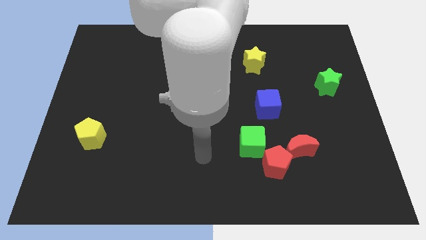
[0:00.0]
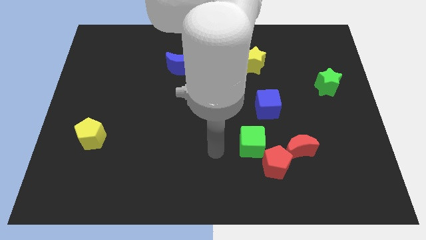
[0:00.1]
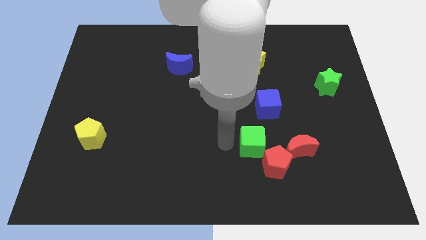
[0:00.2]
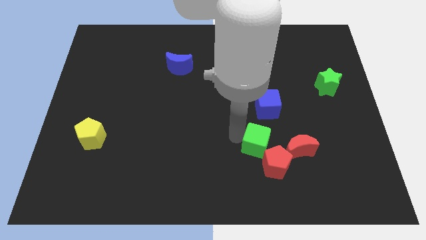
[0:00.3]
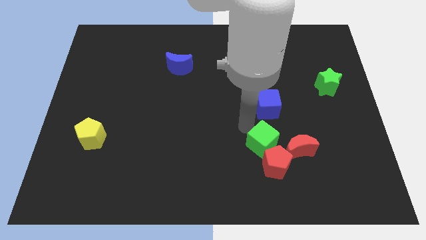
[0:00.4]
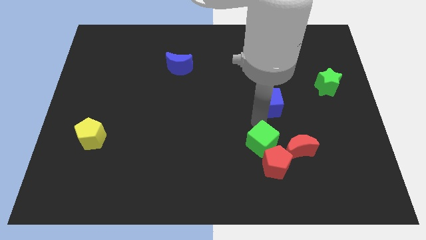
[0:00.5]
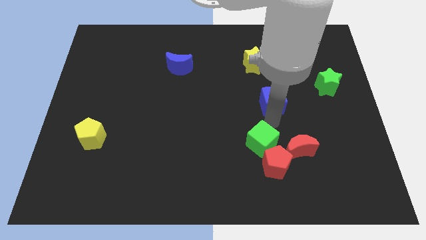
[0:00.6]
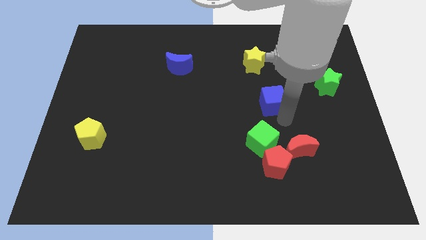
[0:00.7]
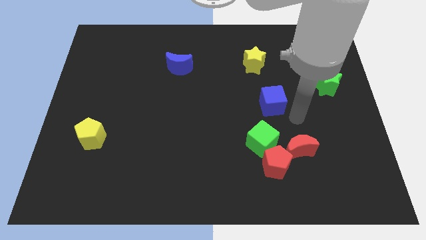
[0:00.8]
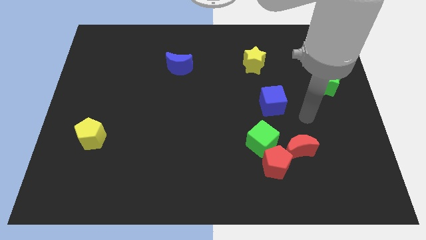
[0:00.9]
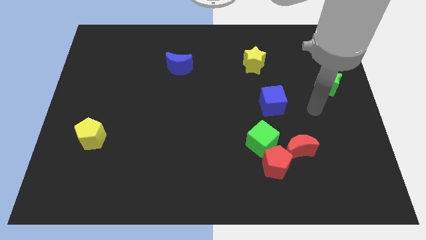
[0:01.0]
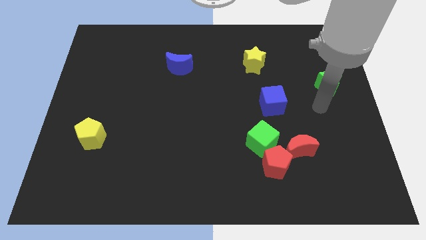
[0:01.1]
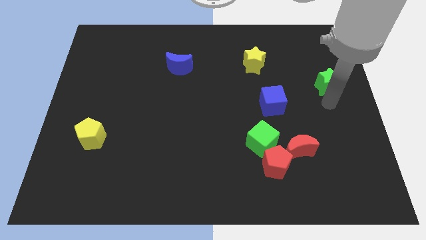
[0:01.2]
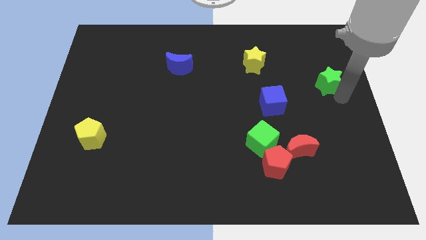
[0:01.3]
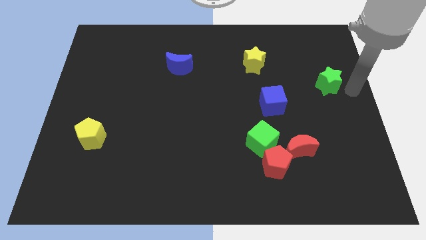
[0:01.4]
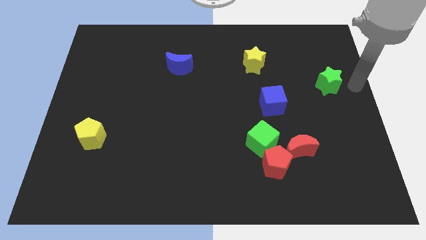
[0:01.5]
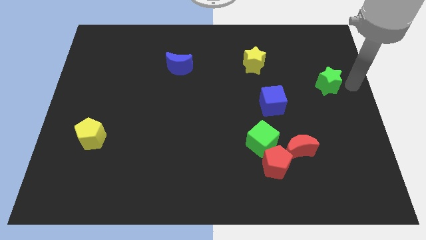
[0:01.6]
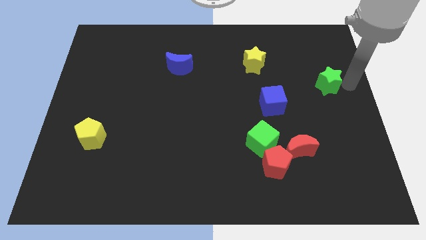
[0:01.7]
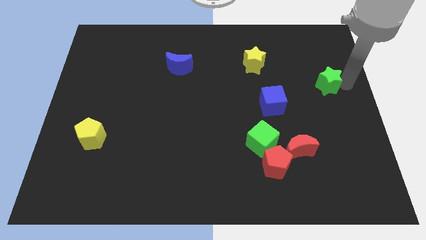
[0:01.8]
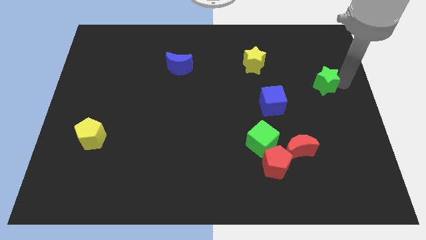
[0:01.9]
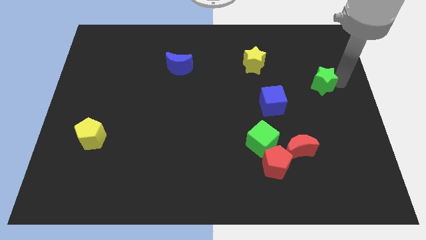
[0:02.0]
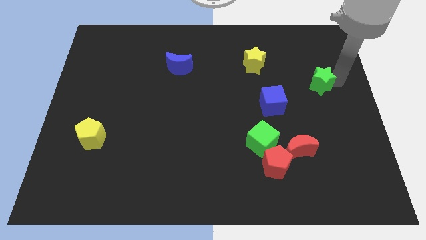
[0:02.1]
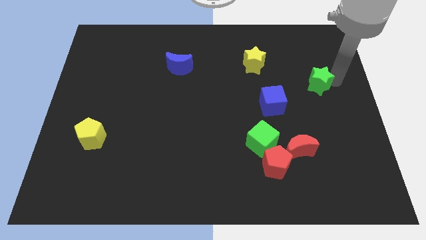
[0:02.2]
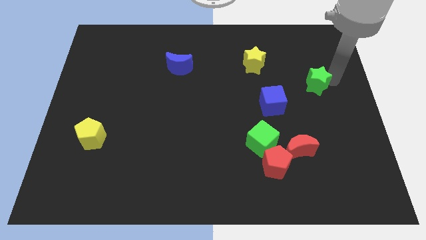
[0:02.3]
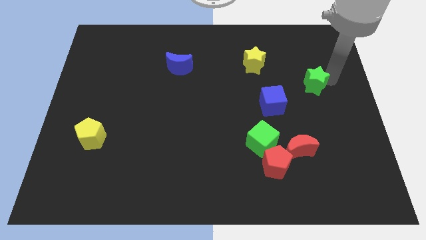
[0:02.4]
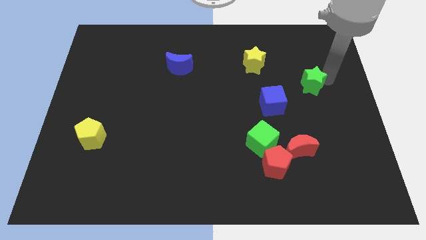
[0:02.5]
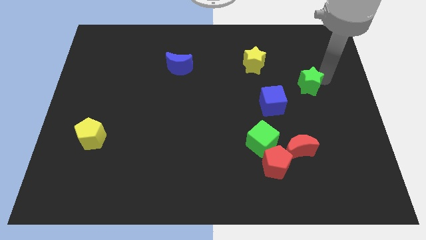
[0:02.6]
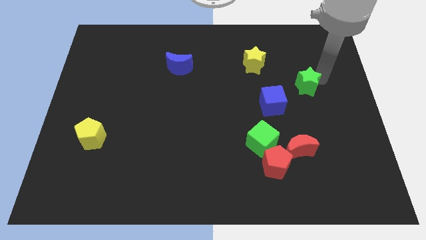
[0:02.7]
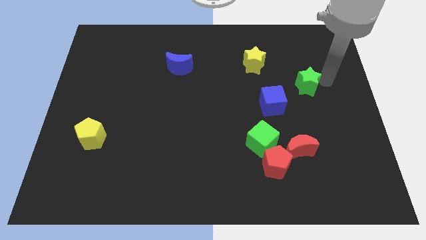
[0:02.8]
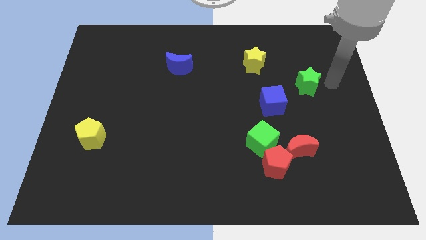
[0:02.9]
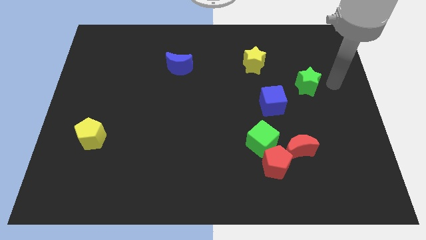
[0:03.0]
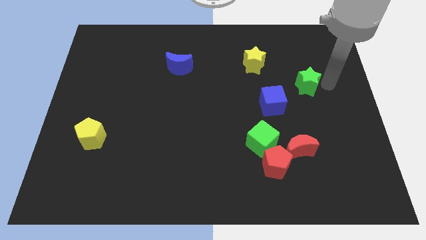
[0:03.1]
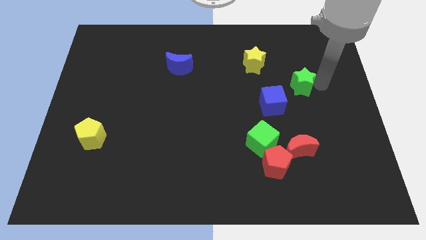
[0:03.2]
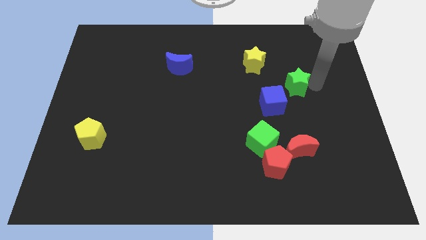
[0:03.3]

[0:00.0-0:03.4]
move the green star somewhat to the left

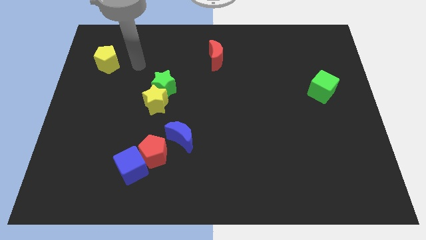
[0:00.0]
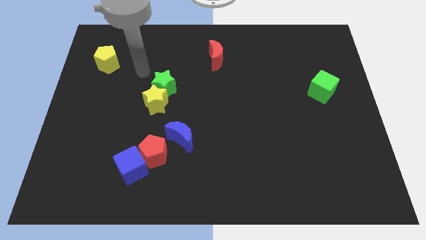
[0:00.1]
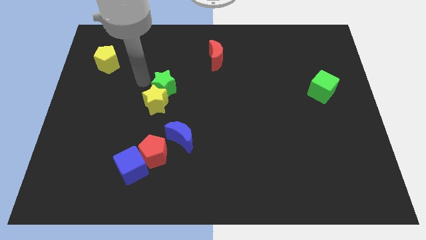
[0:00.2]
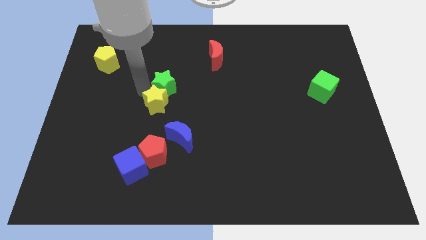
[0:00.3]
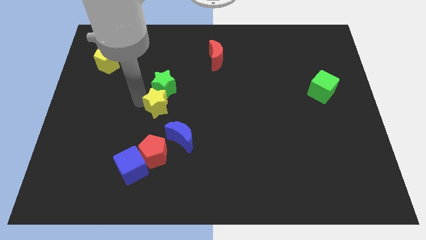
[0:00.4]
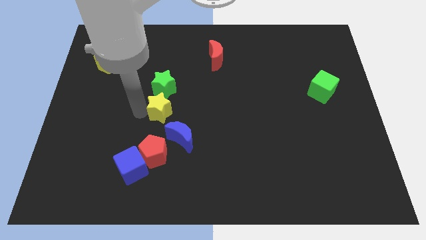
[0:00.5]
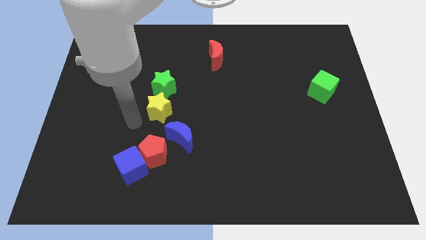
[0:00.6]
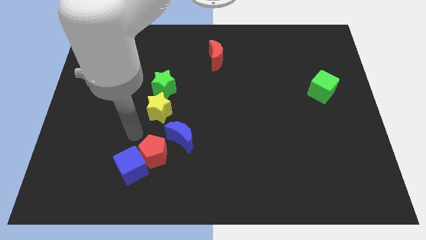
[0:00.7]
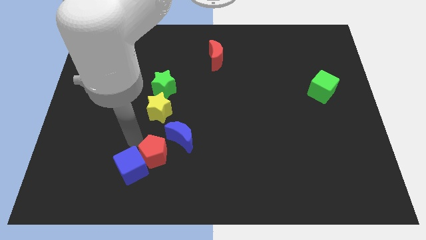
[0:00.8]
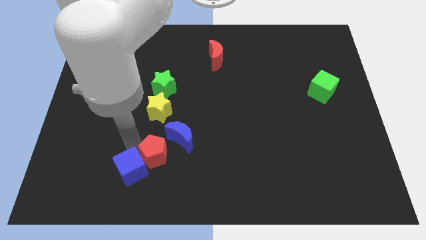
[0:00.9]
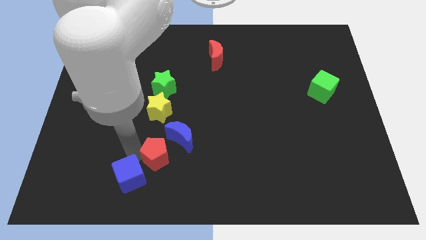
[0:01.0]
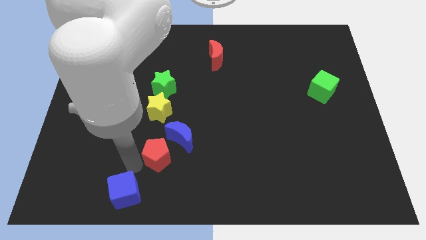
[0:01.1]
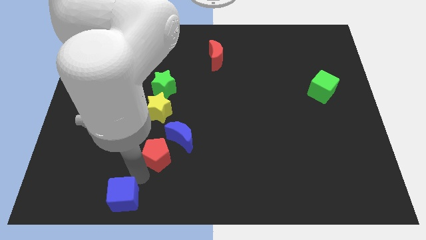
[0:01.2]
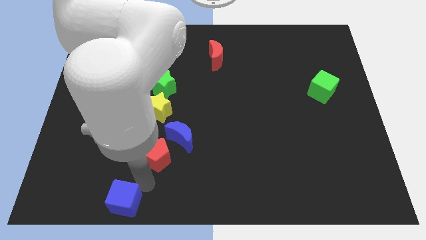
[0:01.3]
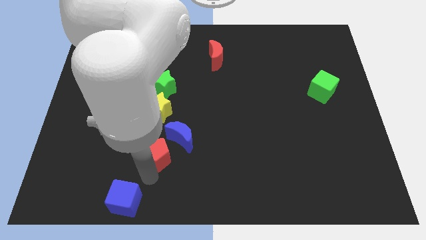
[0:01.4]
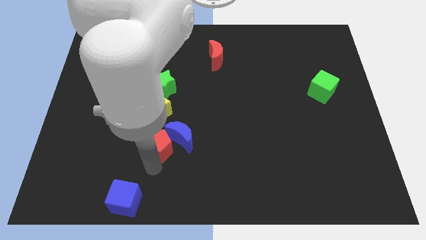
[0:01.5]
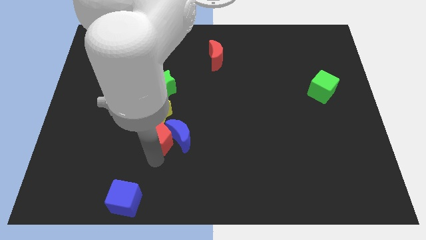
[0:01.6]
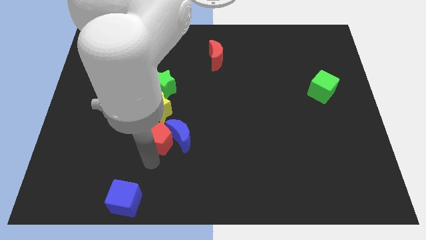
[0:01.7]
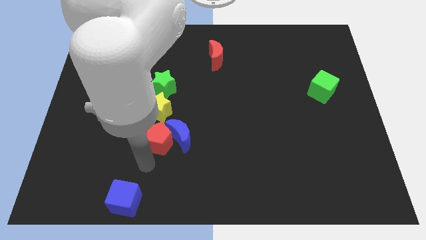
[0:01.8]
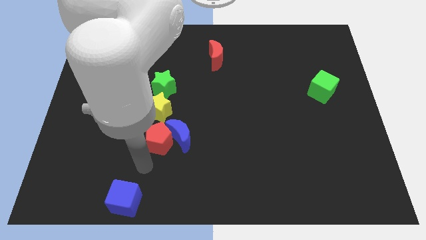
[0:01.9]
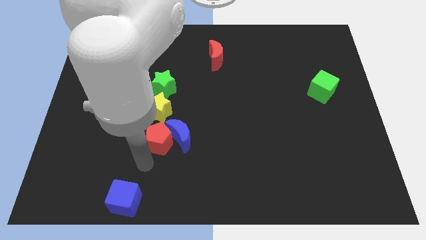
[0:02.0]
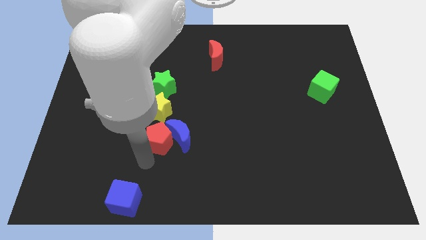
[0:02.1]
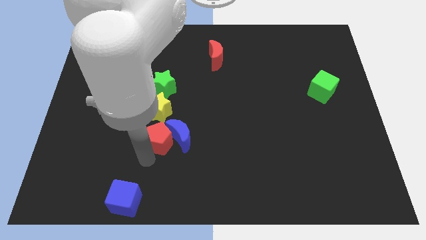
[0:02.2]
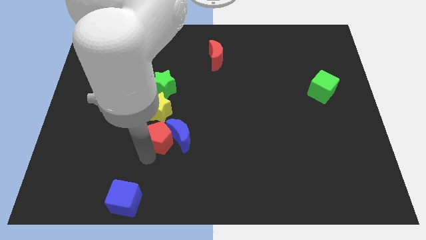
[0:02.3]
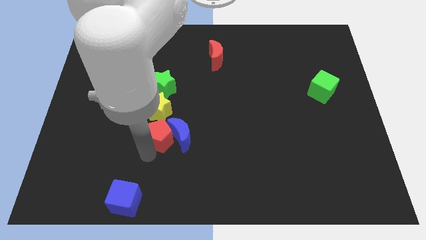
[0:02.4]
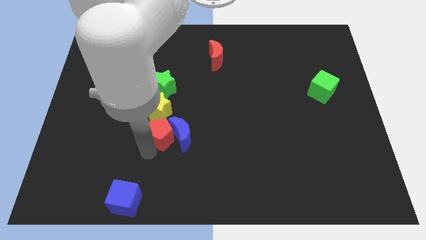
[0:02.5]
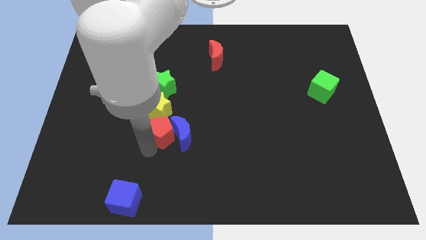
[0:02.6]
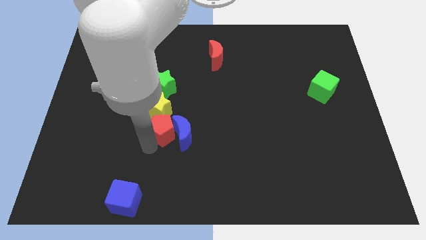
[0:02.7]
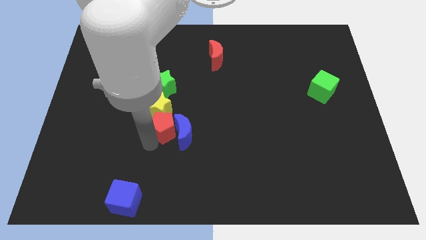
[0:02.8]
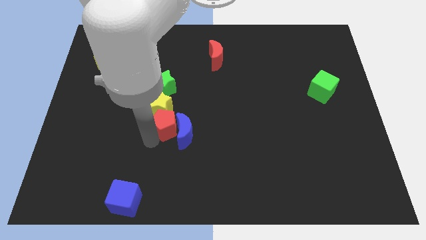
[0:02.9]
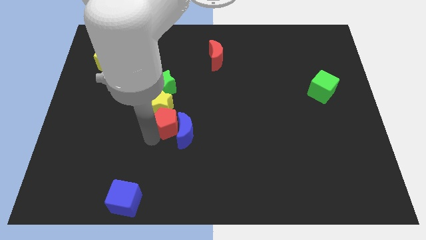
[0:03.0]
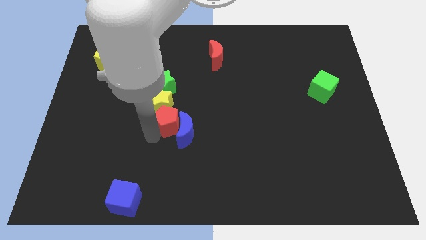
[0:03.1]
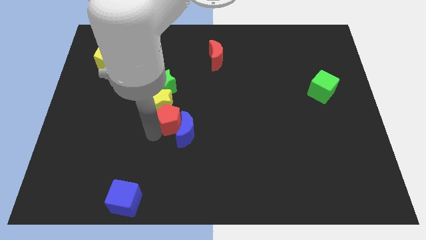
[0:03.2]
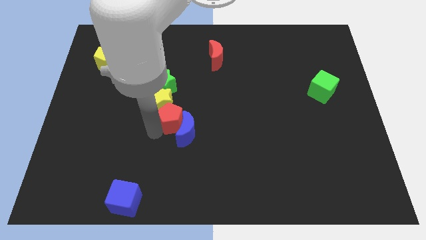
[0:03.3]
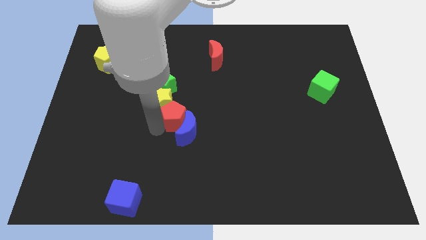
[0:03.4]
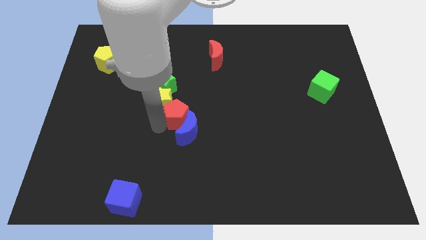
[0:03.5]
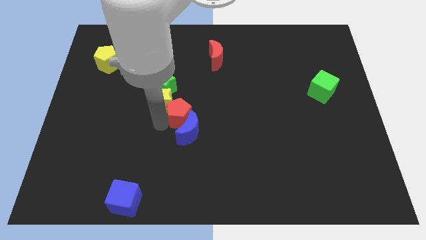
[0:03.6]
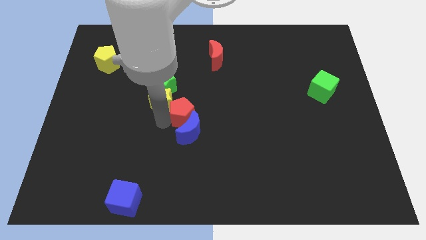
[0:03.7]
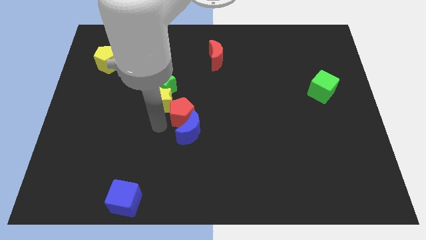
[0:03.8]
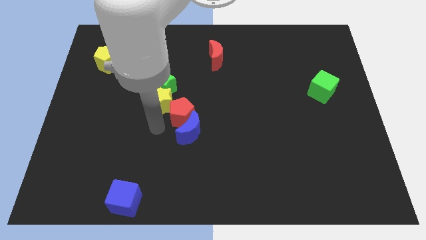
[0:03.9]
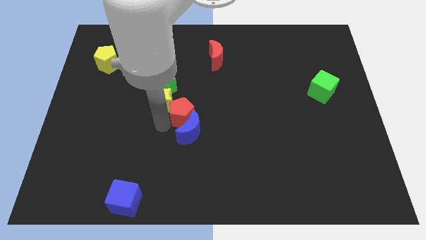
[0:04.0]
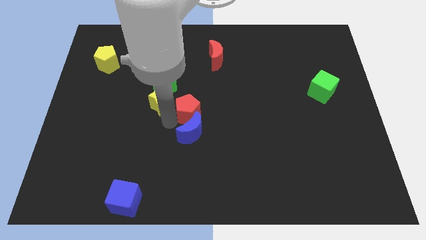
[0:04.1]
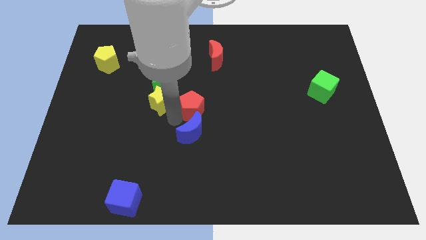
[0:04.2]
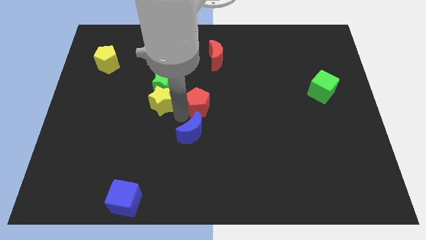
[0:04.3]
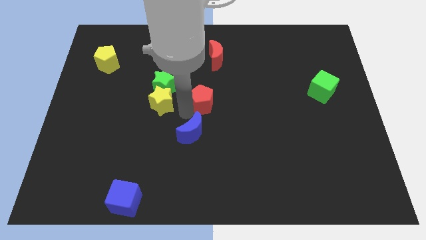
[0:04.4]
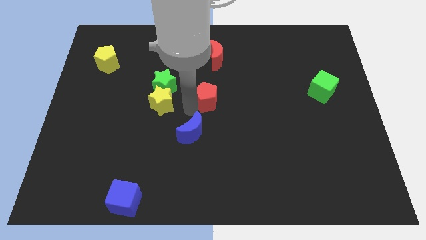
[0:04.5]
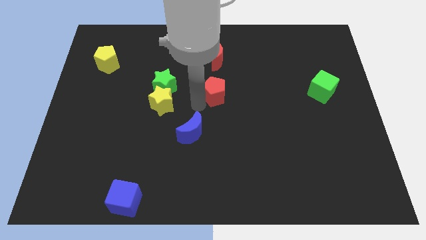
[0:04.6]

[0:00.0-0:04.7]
push the red pentagon up and right

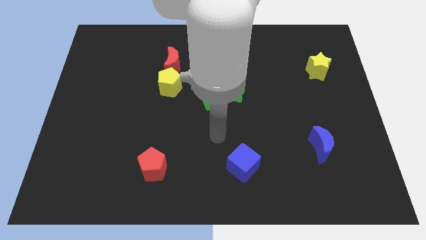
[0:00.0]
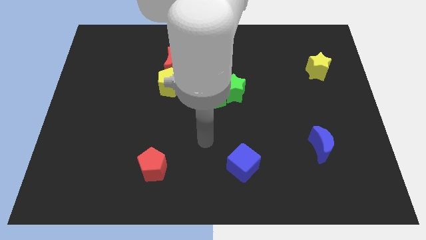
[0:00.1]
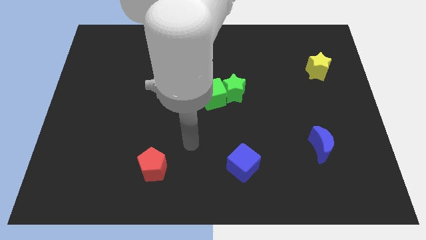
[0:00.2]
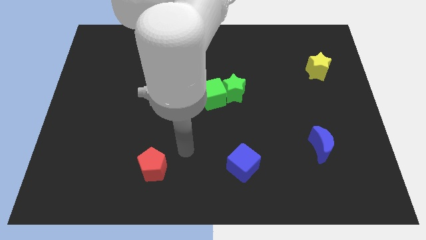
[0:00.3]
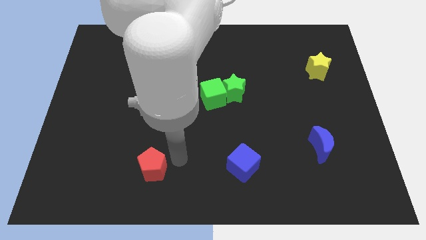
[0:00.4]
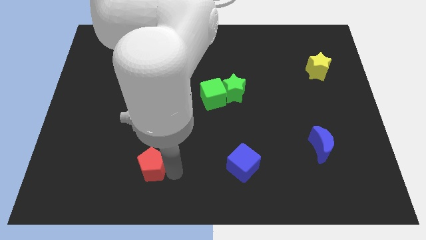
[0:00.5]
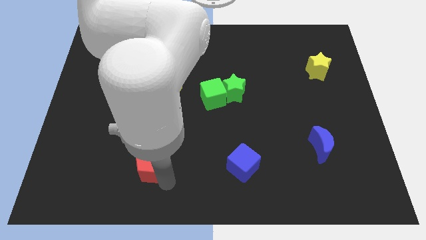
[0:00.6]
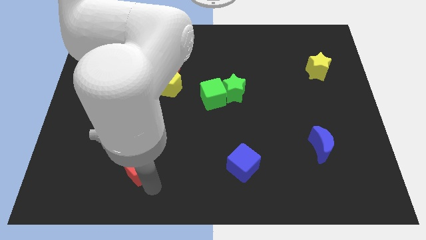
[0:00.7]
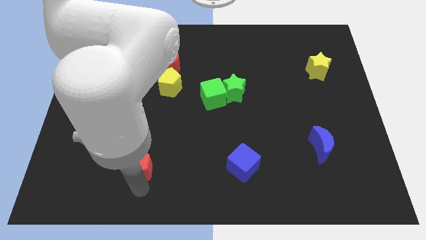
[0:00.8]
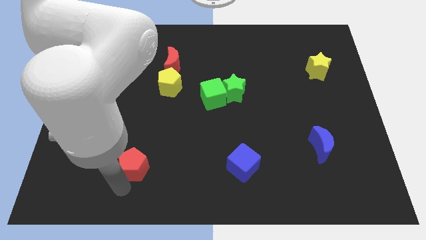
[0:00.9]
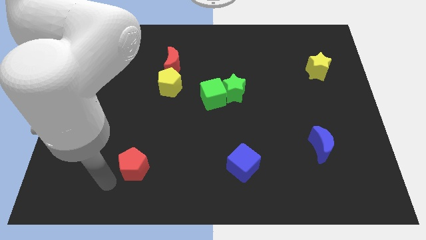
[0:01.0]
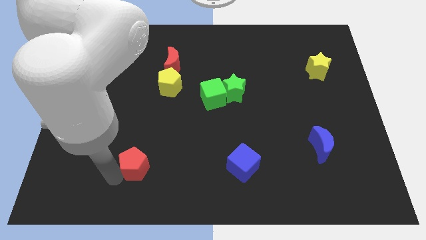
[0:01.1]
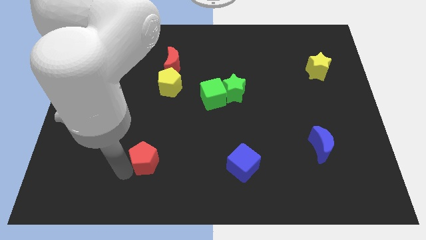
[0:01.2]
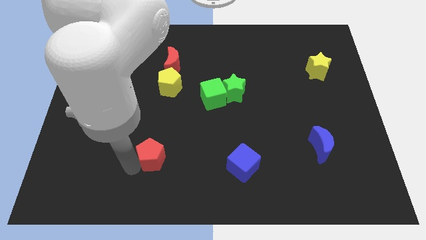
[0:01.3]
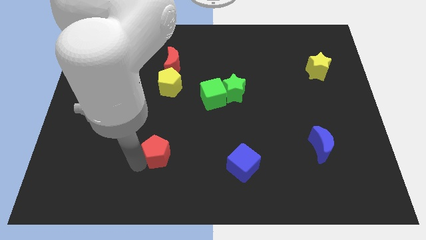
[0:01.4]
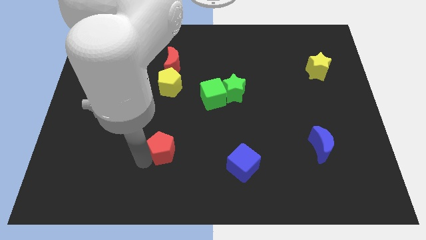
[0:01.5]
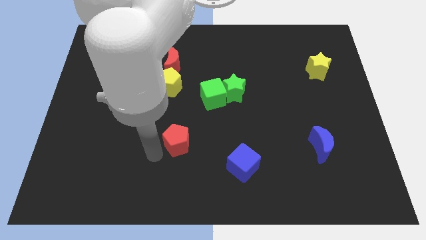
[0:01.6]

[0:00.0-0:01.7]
slide the red pentagon slightly upwards and right
